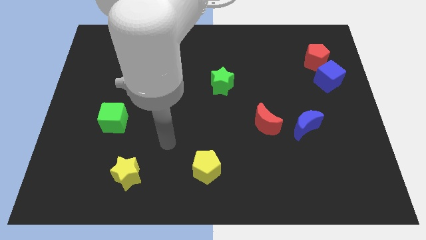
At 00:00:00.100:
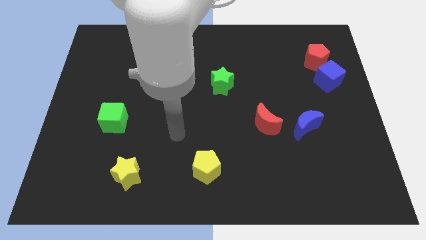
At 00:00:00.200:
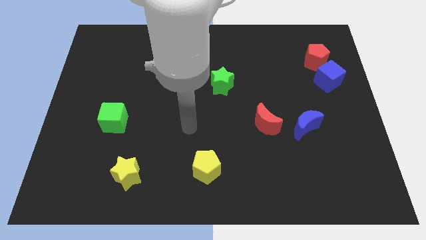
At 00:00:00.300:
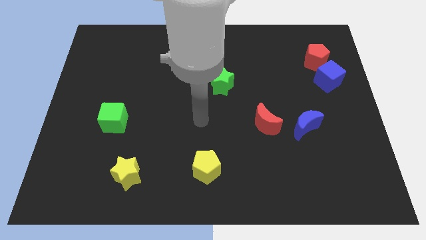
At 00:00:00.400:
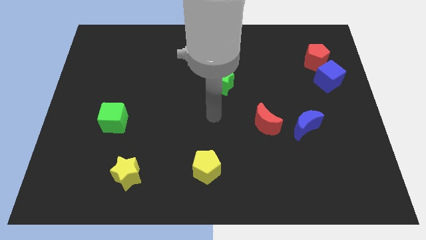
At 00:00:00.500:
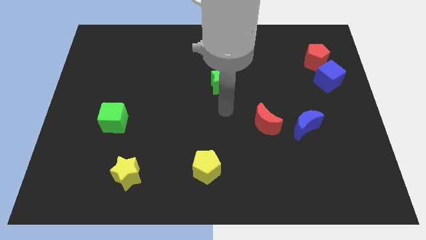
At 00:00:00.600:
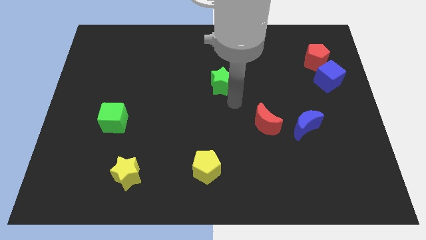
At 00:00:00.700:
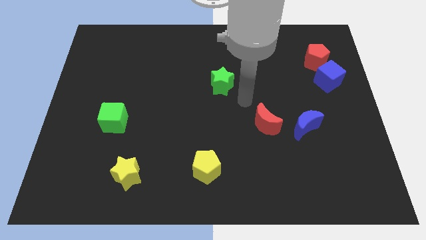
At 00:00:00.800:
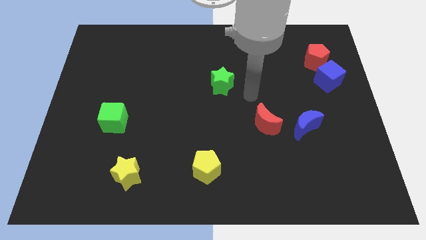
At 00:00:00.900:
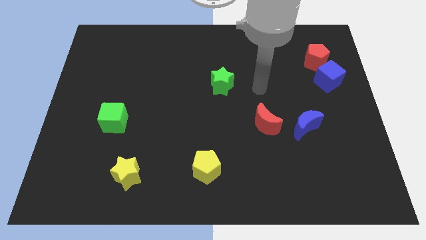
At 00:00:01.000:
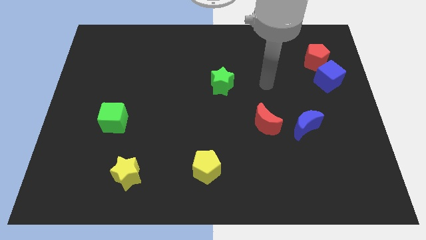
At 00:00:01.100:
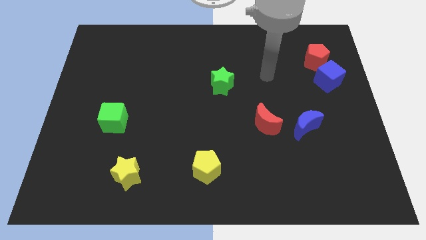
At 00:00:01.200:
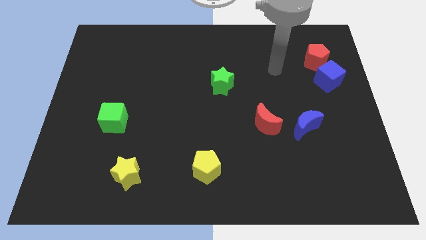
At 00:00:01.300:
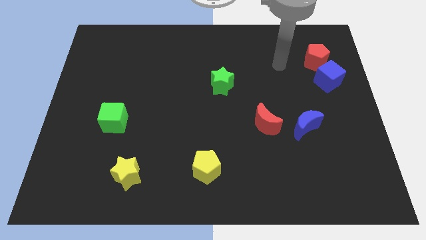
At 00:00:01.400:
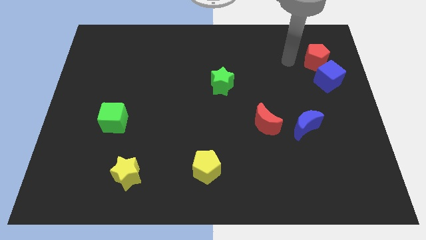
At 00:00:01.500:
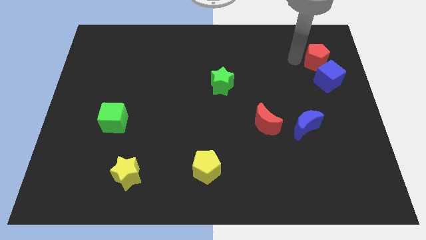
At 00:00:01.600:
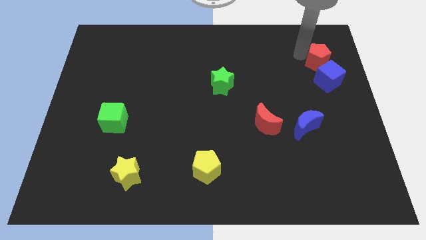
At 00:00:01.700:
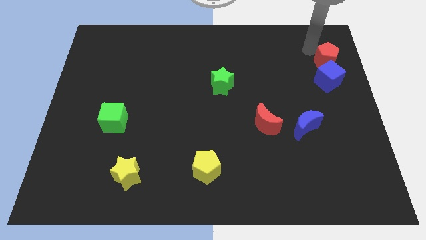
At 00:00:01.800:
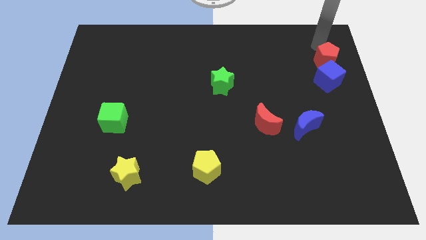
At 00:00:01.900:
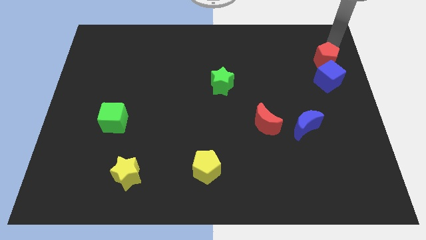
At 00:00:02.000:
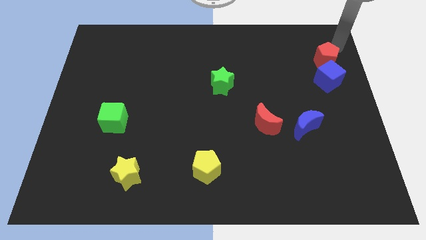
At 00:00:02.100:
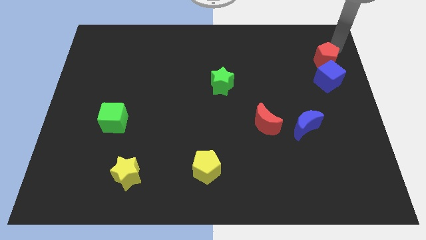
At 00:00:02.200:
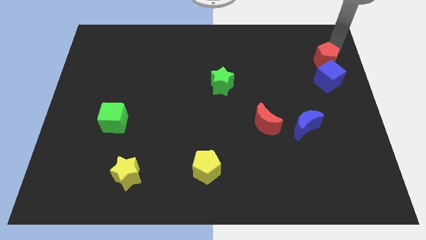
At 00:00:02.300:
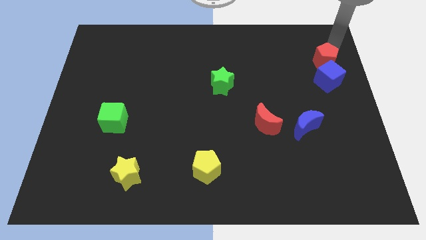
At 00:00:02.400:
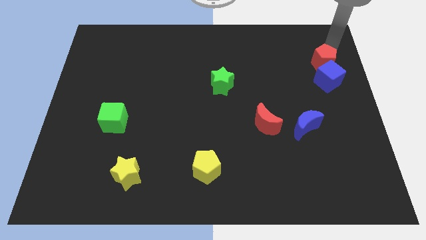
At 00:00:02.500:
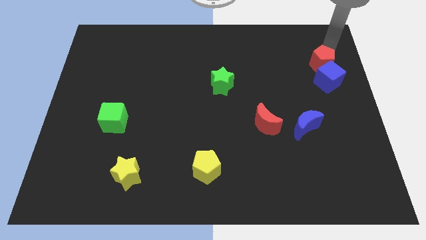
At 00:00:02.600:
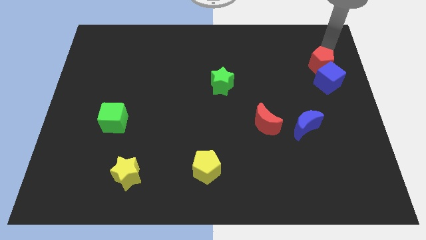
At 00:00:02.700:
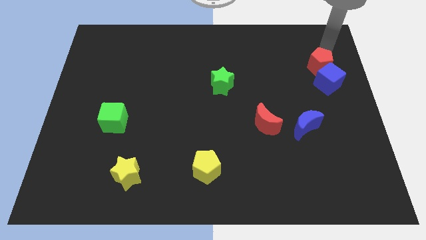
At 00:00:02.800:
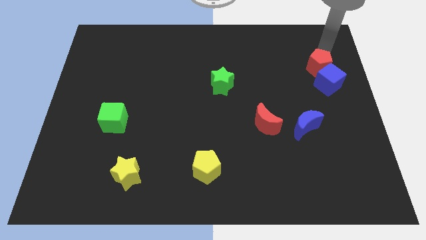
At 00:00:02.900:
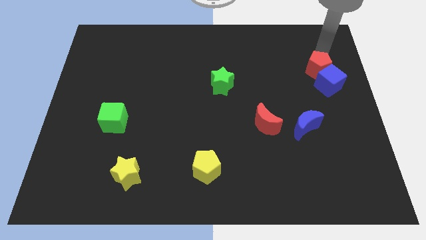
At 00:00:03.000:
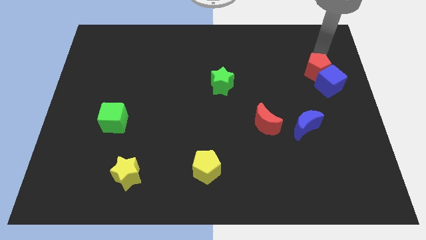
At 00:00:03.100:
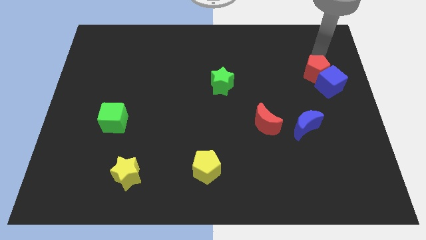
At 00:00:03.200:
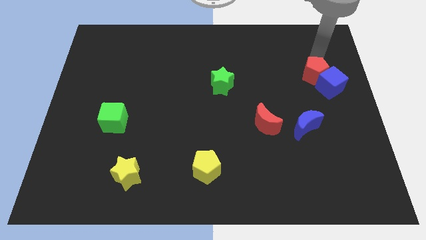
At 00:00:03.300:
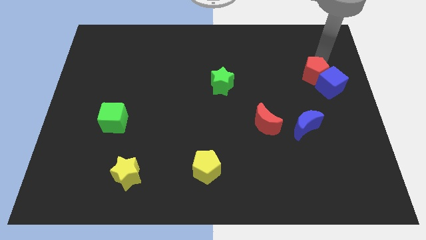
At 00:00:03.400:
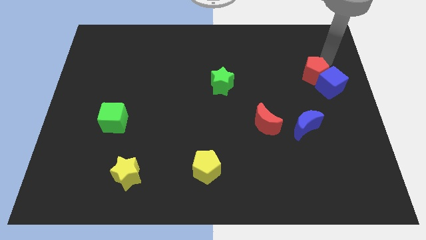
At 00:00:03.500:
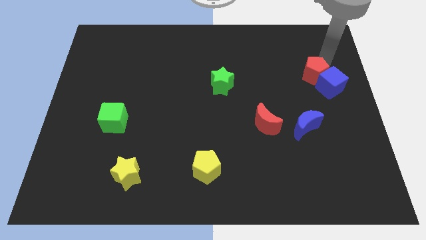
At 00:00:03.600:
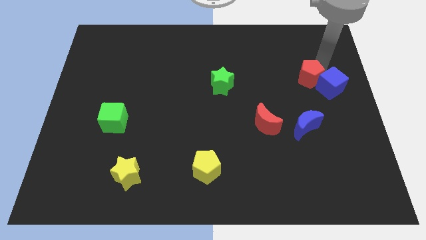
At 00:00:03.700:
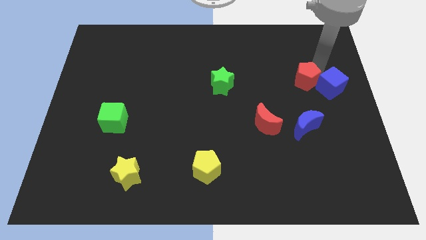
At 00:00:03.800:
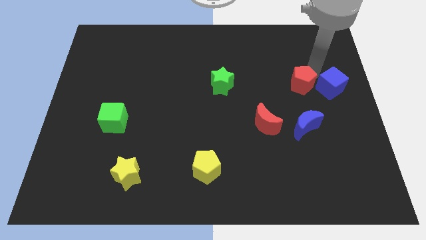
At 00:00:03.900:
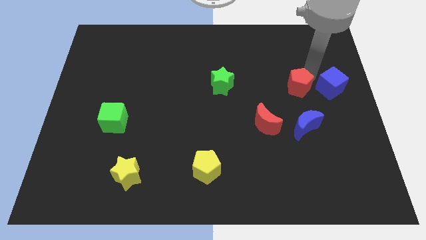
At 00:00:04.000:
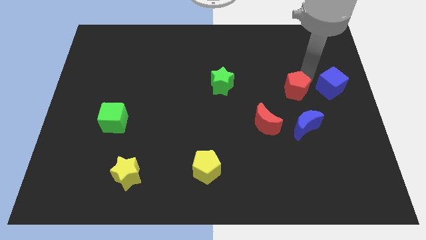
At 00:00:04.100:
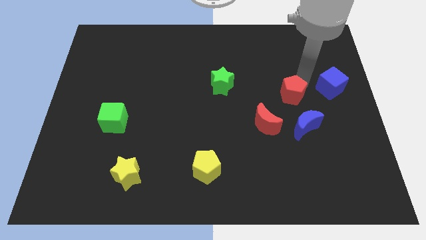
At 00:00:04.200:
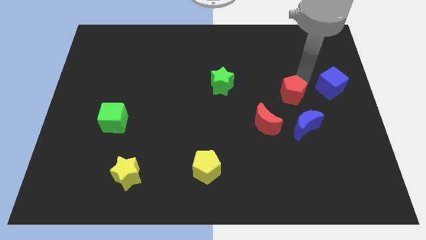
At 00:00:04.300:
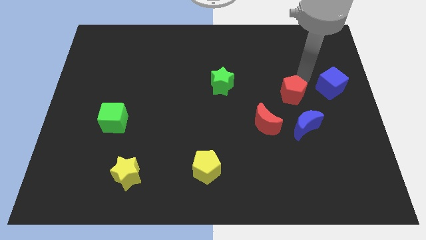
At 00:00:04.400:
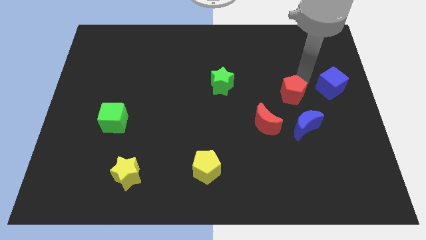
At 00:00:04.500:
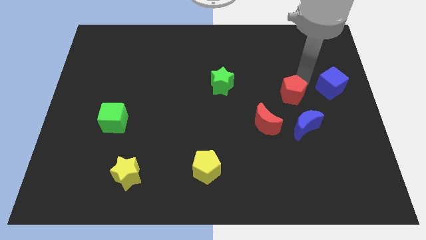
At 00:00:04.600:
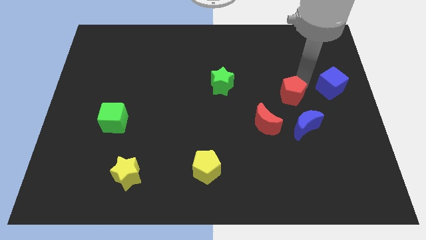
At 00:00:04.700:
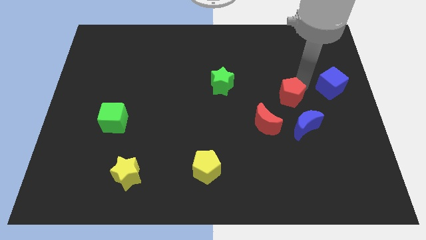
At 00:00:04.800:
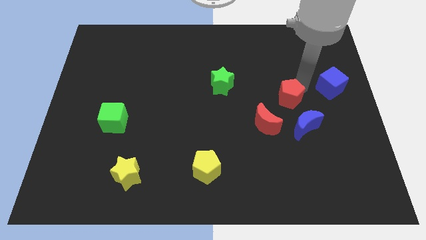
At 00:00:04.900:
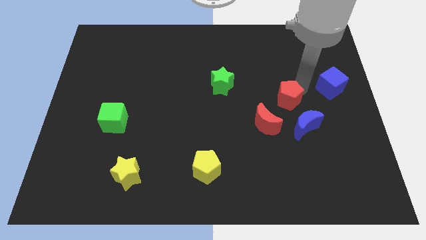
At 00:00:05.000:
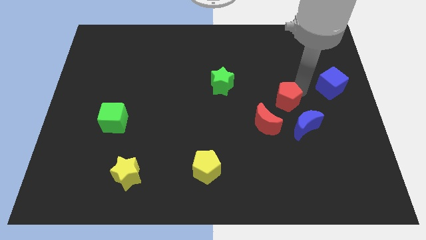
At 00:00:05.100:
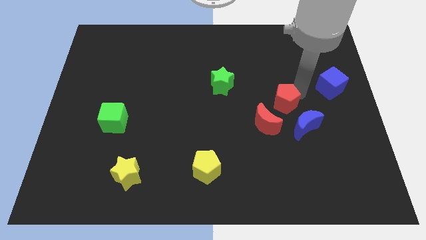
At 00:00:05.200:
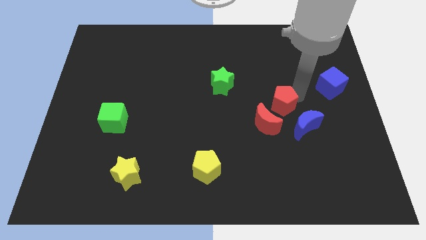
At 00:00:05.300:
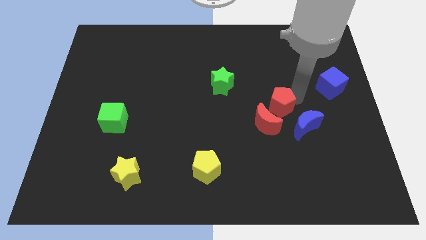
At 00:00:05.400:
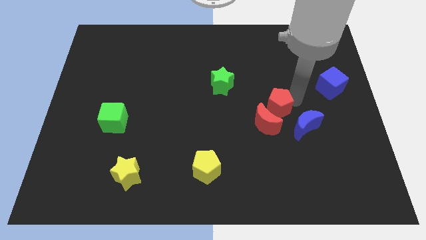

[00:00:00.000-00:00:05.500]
slide the red pentagon towards the red moon

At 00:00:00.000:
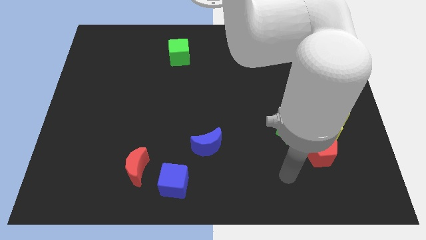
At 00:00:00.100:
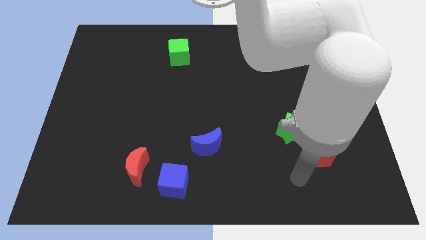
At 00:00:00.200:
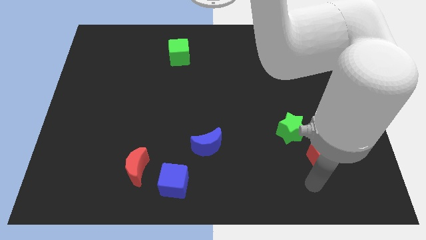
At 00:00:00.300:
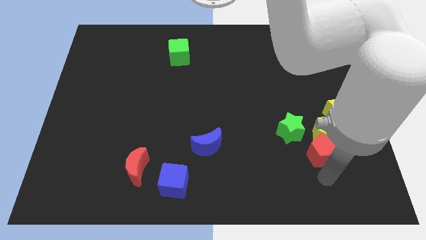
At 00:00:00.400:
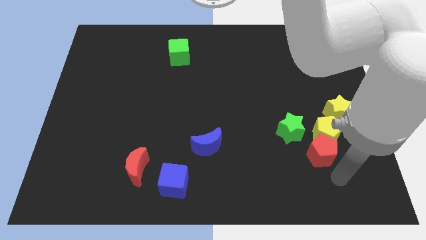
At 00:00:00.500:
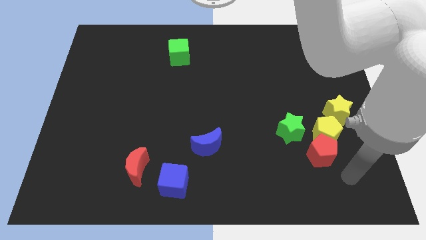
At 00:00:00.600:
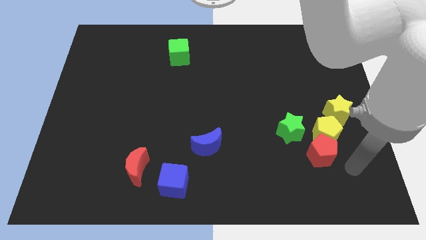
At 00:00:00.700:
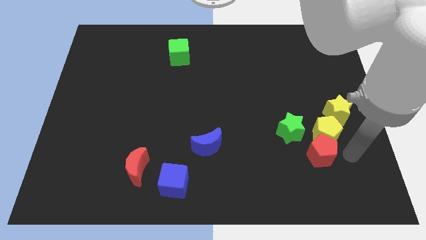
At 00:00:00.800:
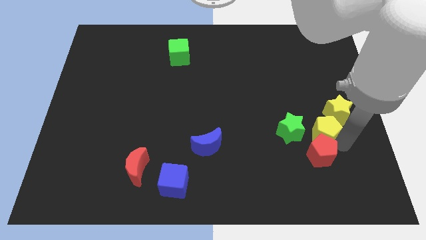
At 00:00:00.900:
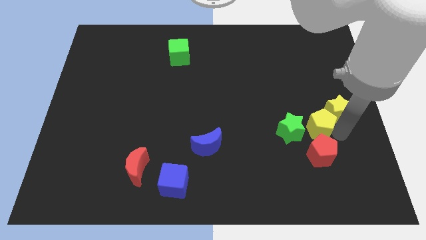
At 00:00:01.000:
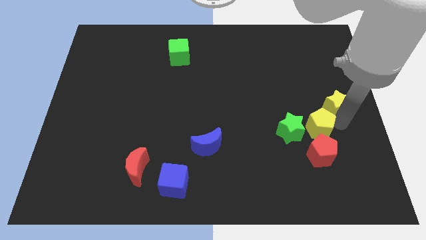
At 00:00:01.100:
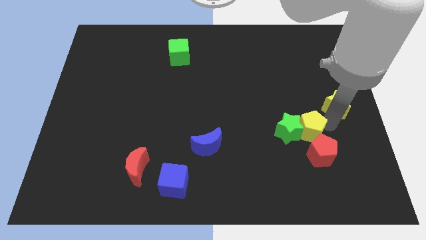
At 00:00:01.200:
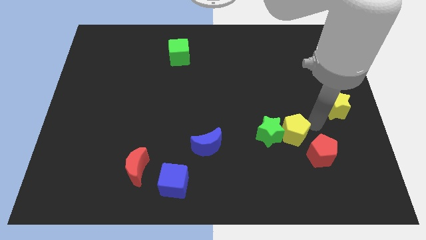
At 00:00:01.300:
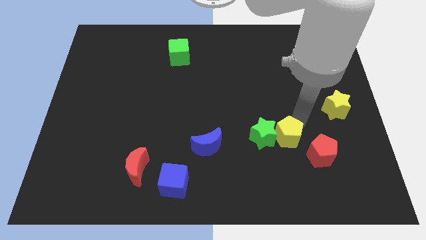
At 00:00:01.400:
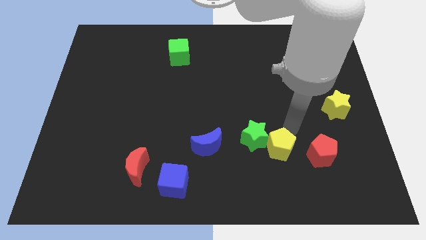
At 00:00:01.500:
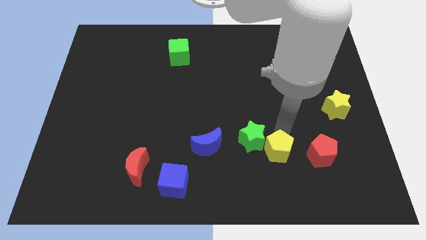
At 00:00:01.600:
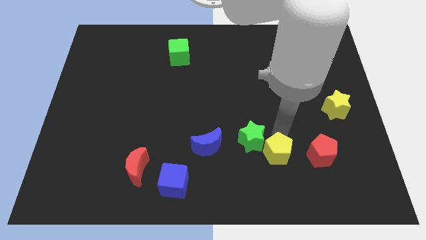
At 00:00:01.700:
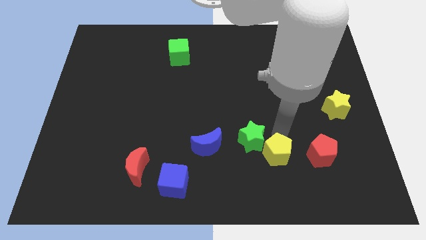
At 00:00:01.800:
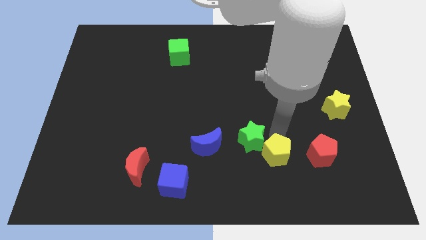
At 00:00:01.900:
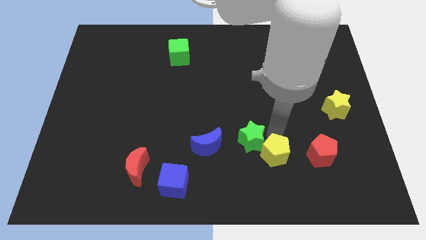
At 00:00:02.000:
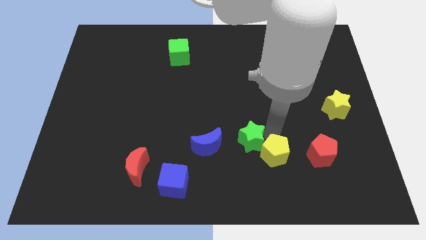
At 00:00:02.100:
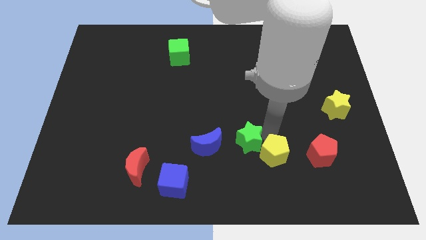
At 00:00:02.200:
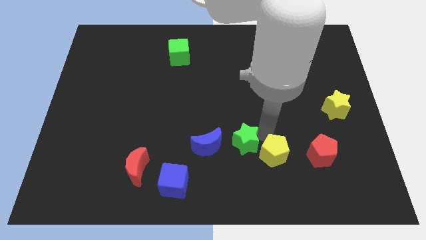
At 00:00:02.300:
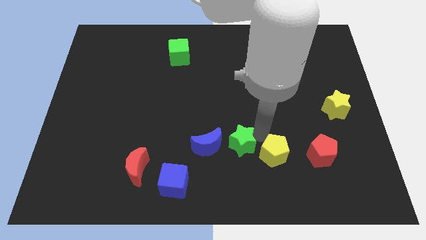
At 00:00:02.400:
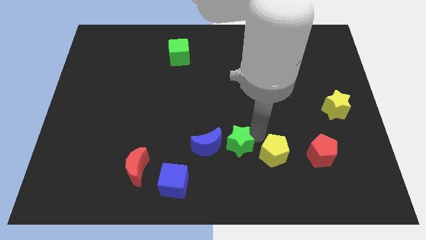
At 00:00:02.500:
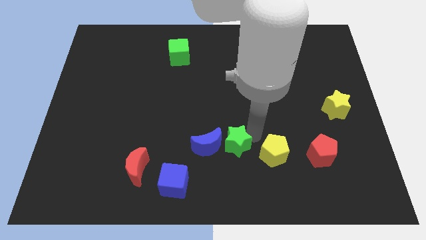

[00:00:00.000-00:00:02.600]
move the green star next to the blue moon
